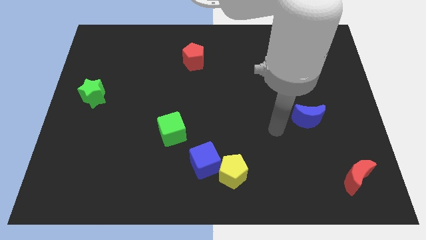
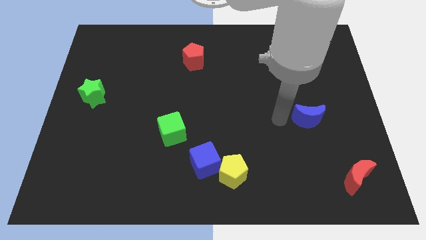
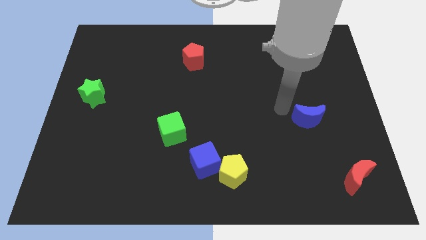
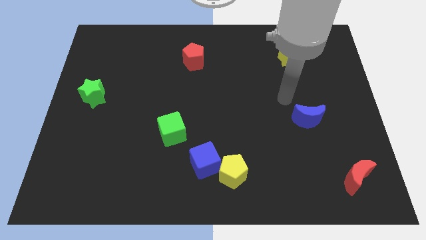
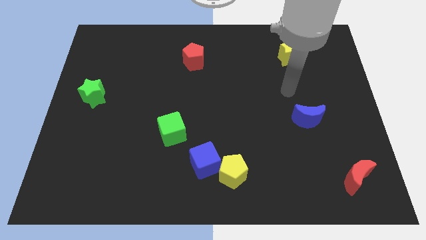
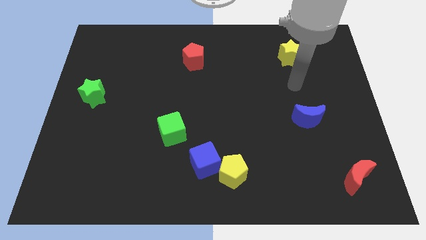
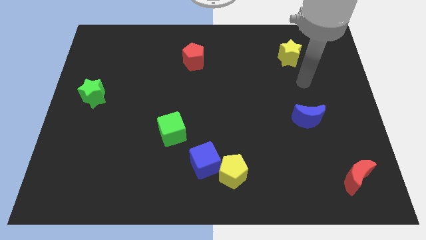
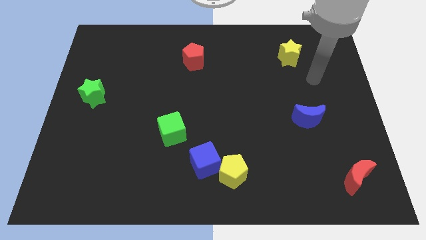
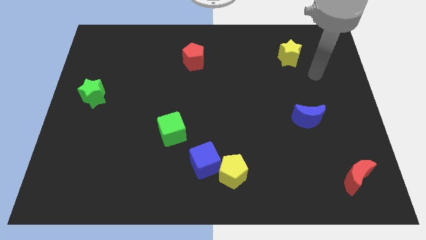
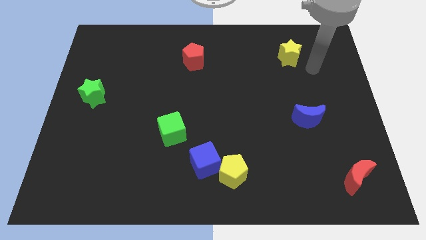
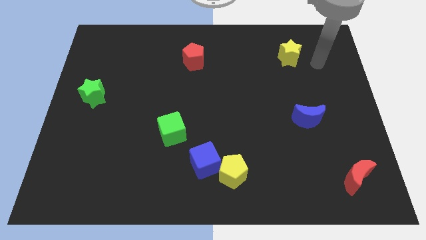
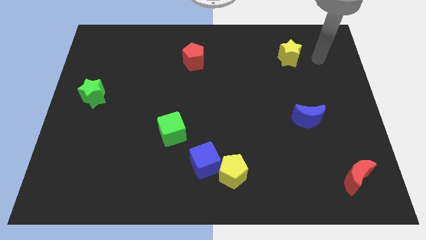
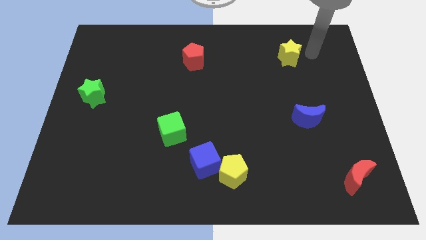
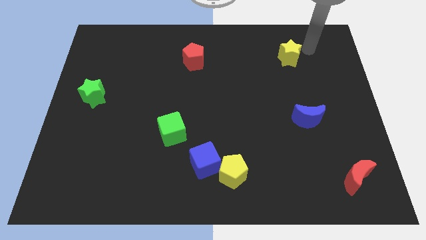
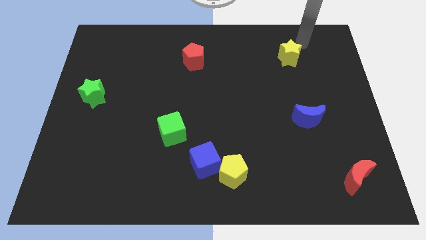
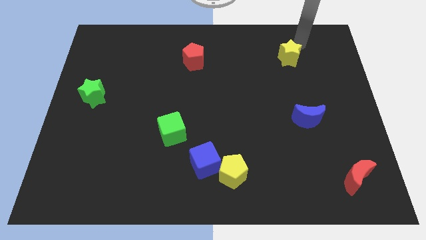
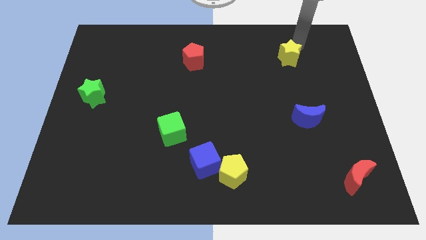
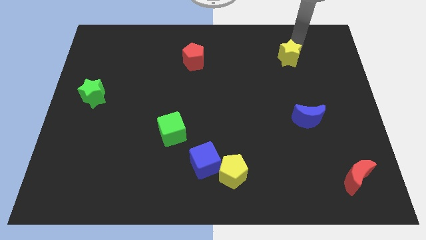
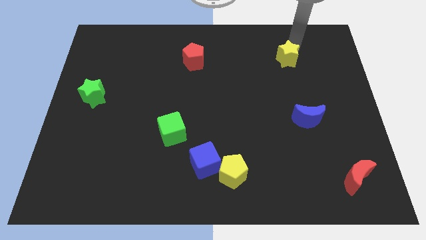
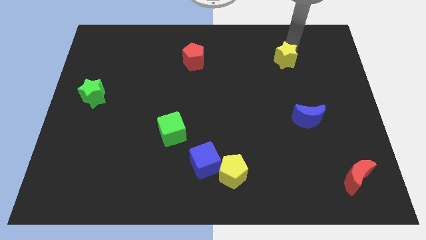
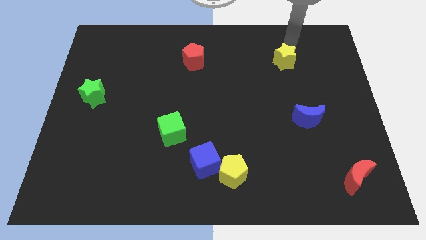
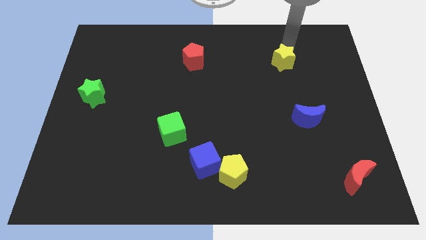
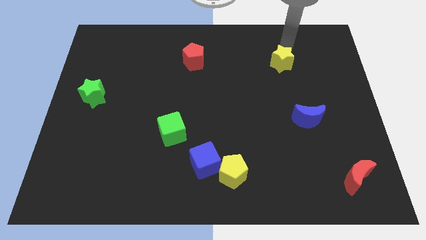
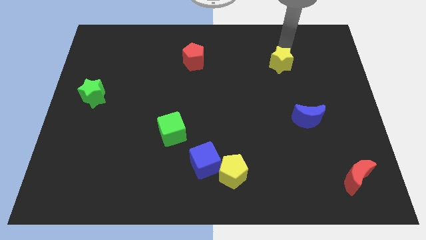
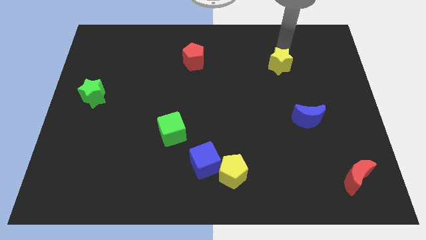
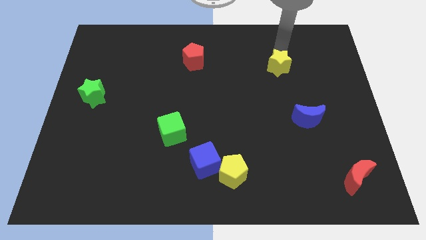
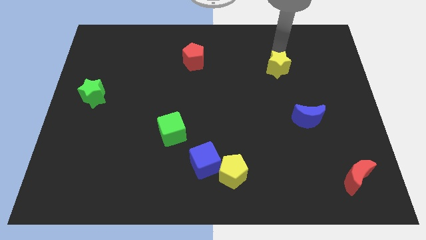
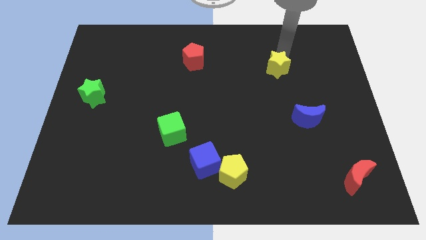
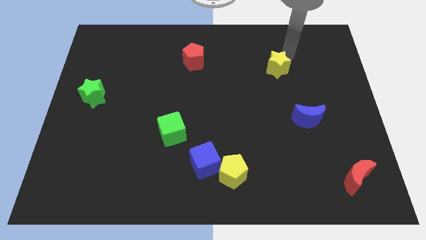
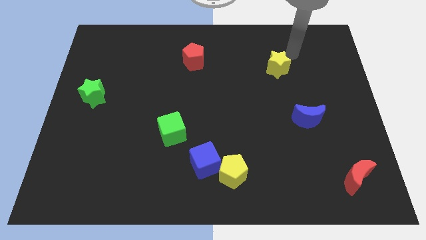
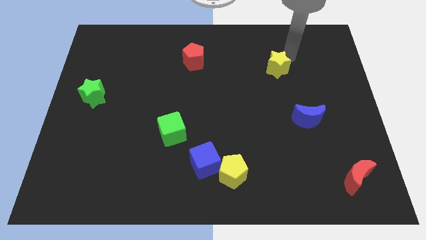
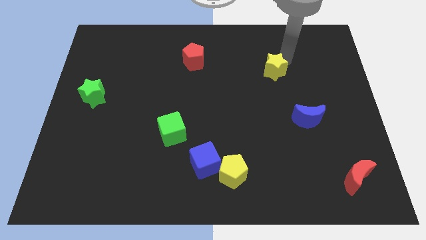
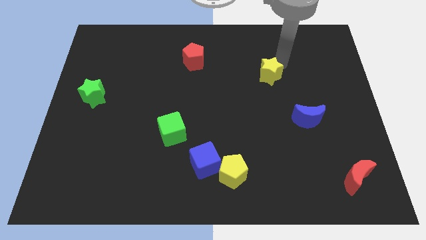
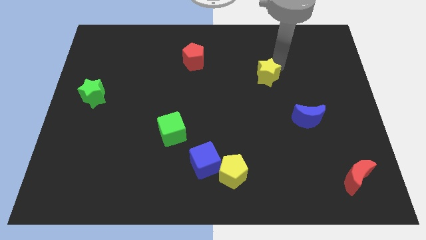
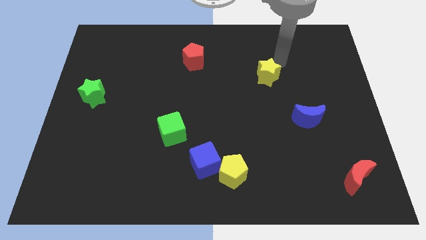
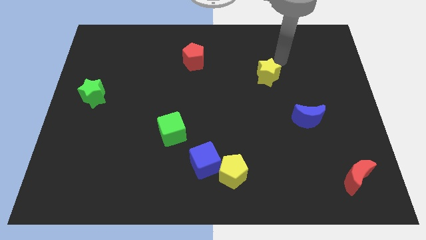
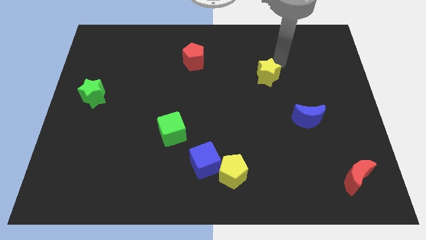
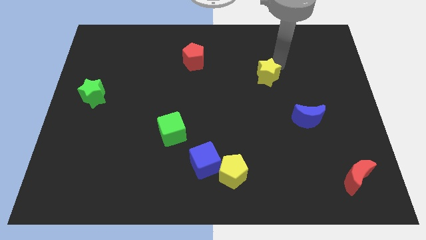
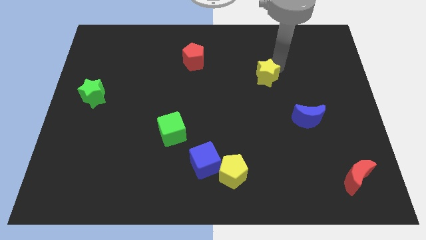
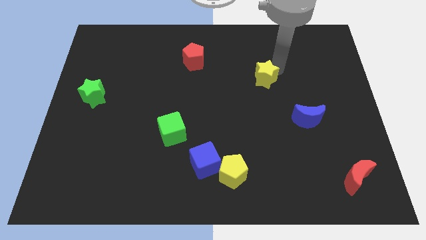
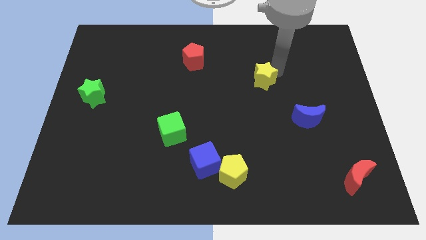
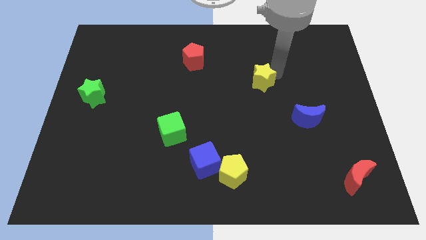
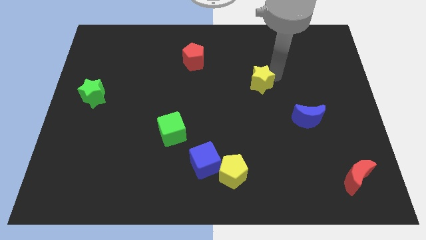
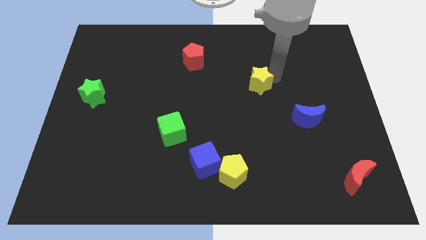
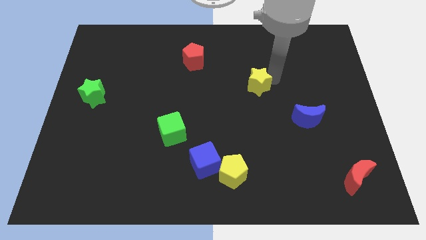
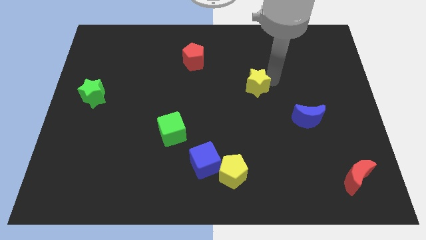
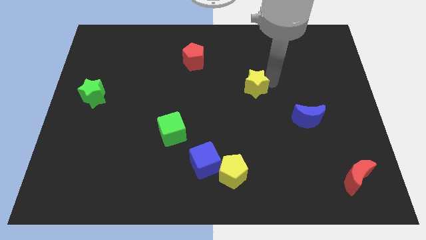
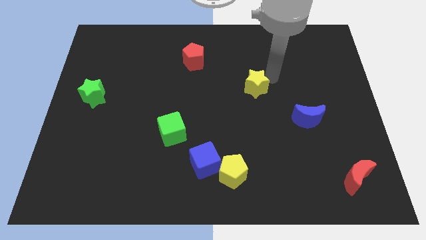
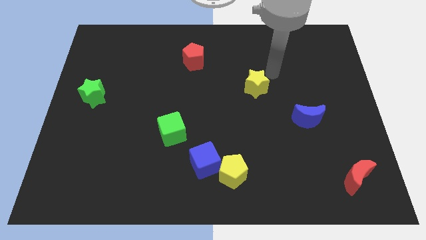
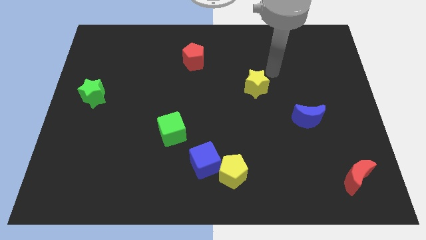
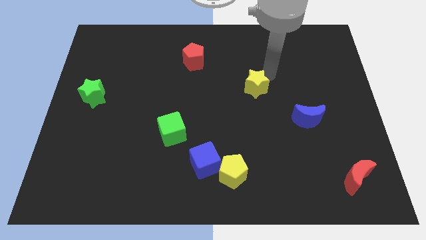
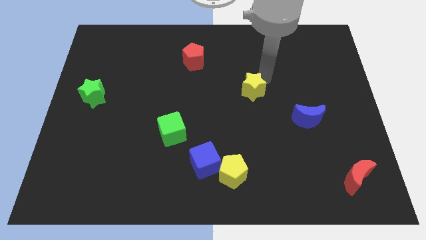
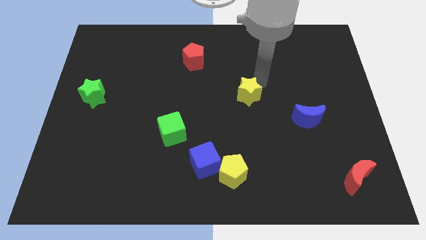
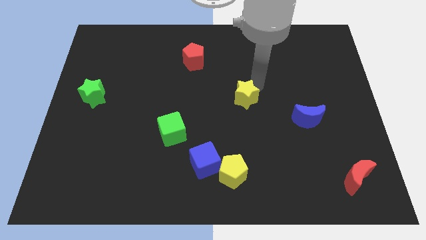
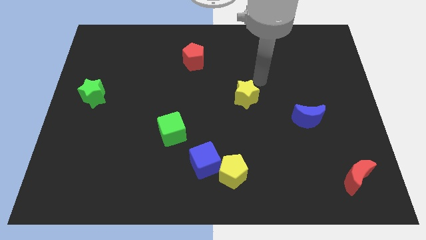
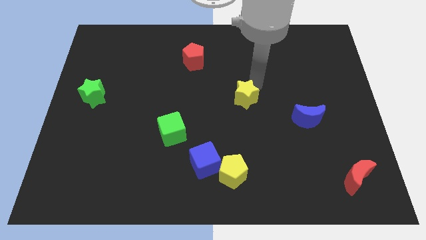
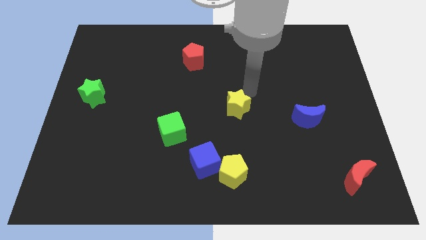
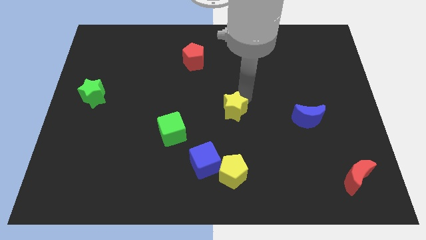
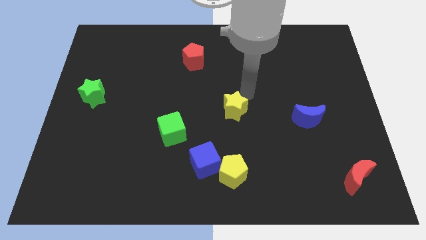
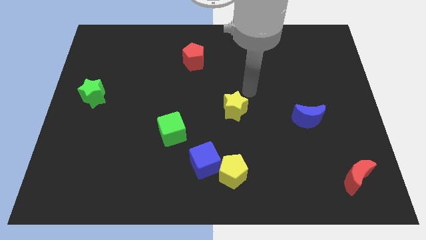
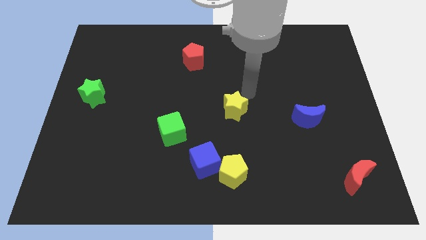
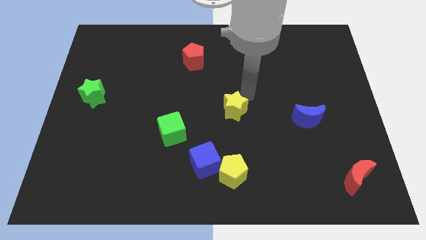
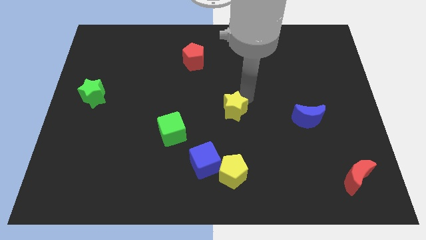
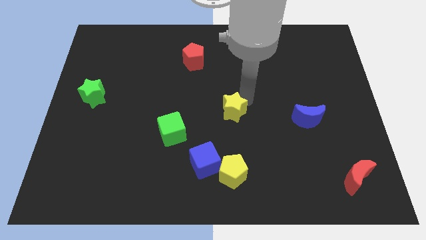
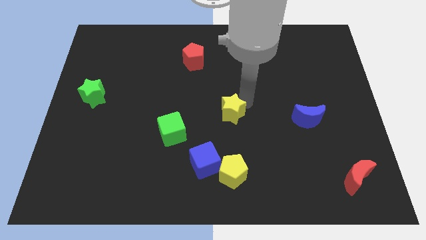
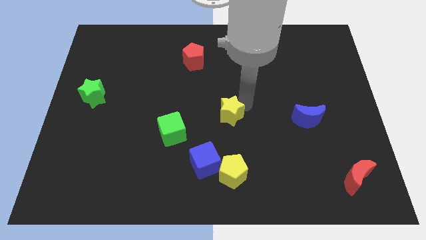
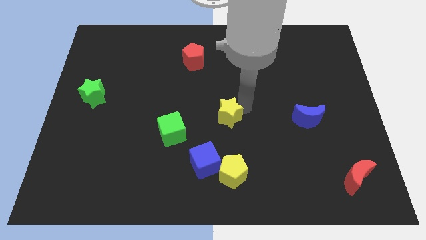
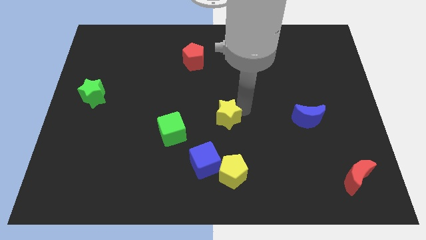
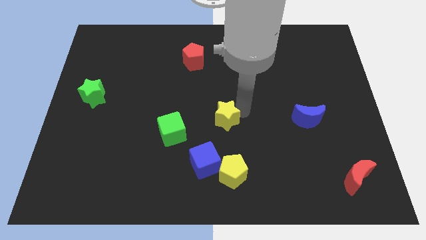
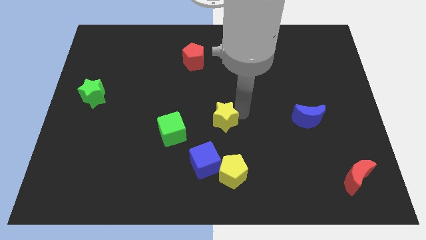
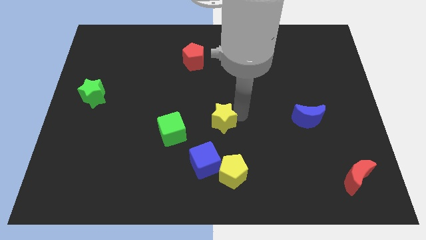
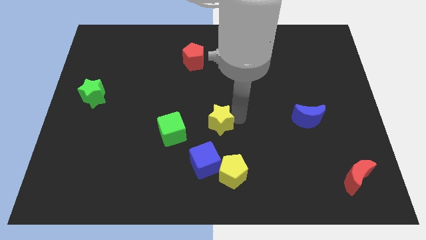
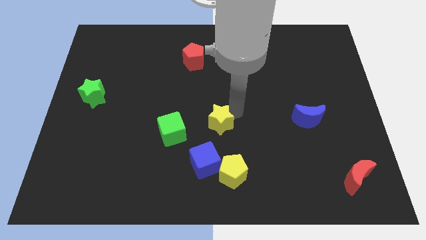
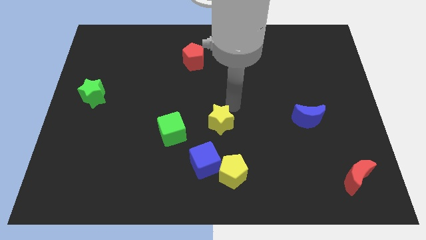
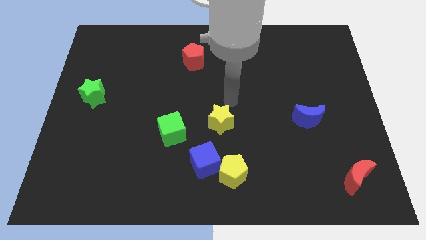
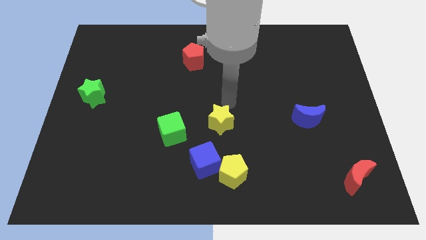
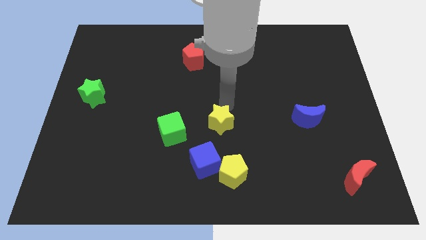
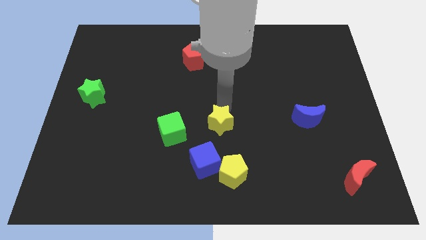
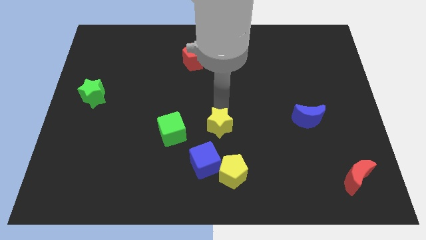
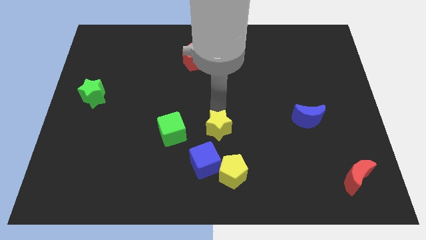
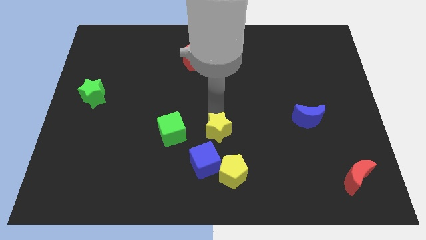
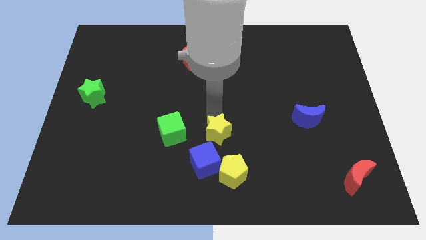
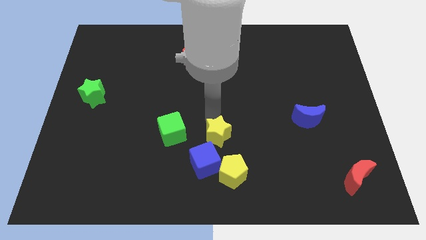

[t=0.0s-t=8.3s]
slide the yellow star to the top left side of the yellow pentagon
